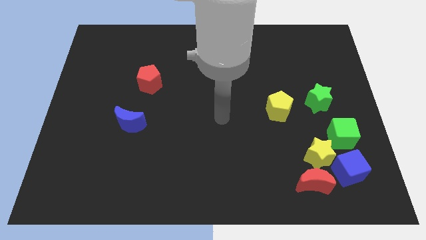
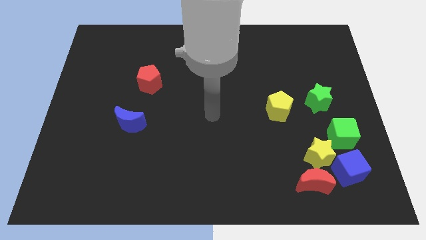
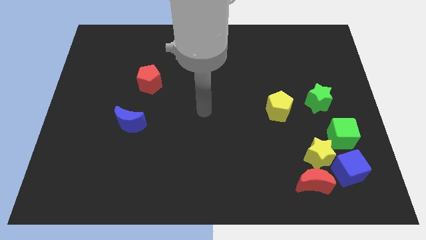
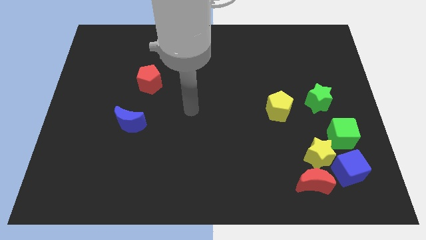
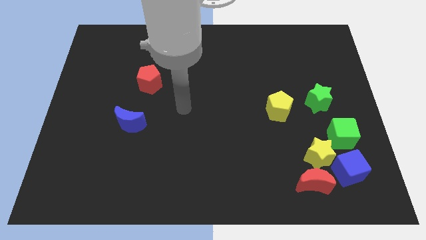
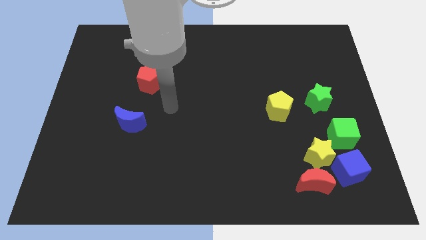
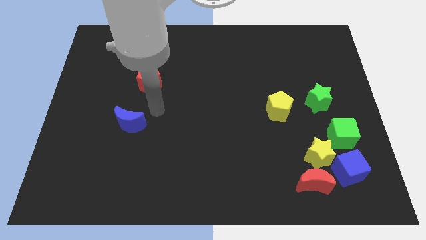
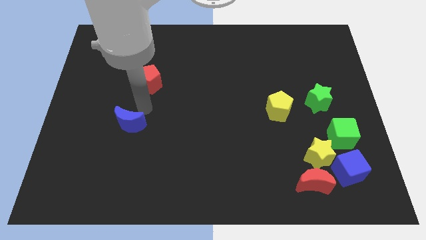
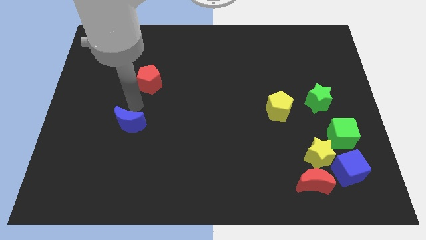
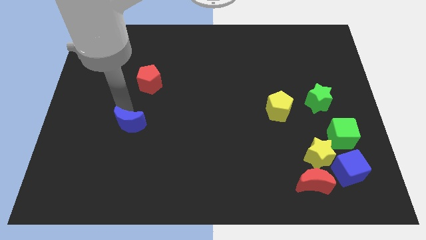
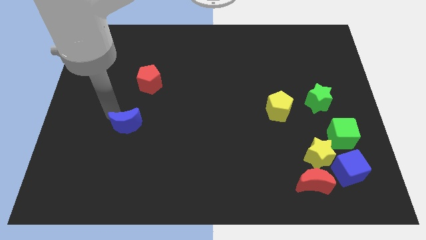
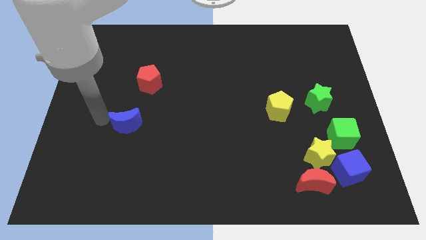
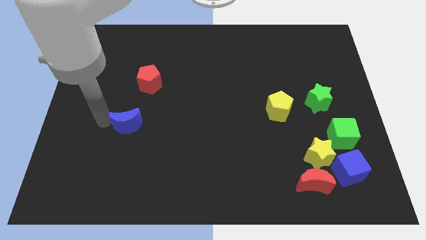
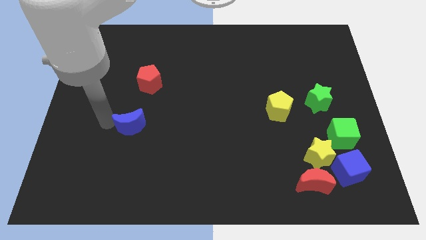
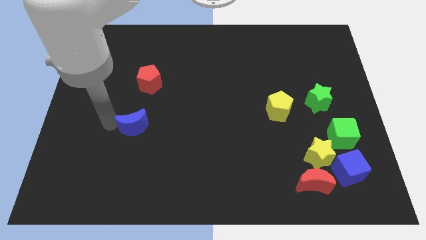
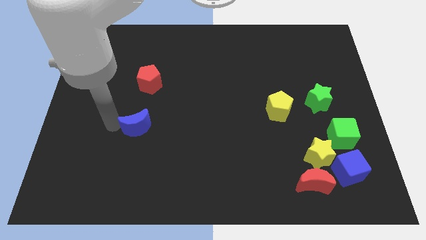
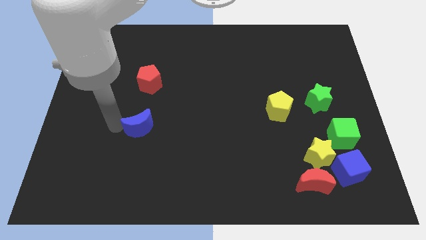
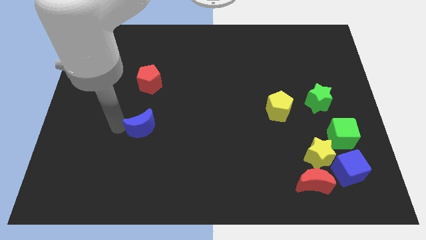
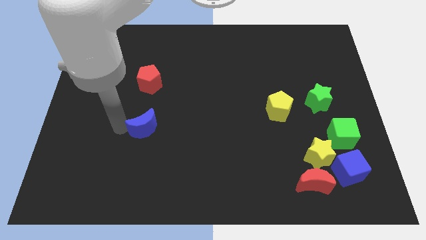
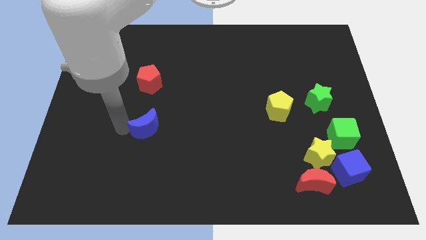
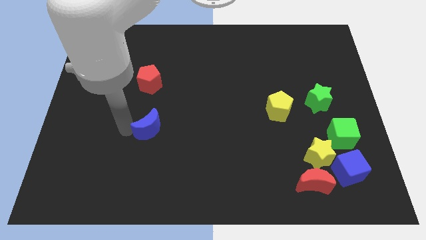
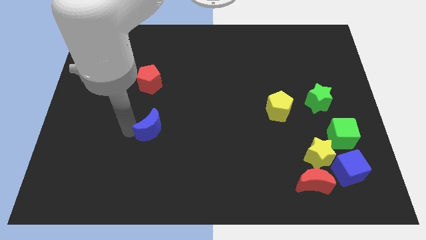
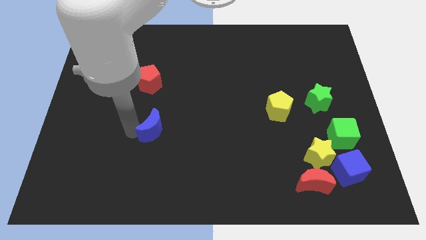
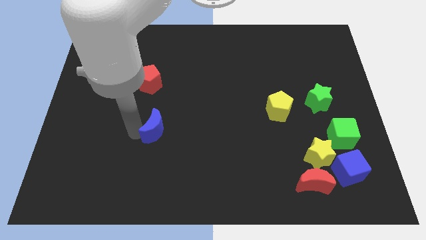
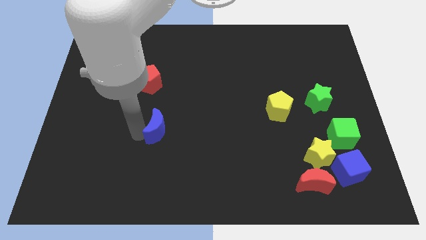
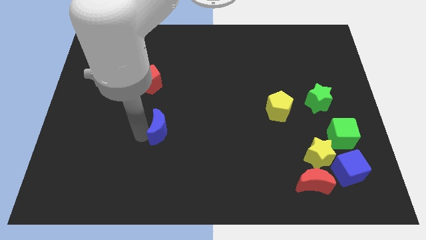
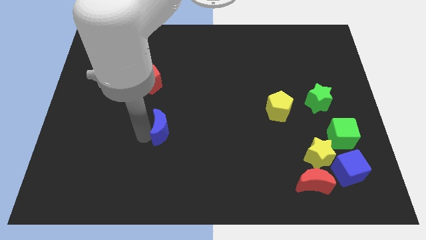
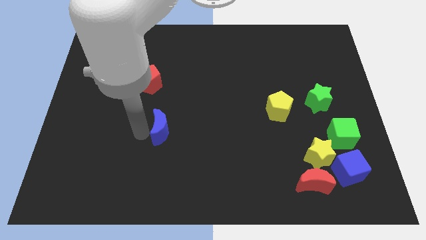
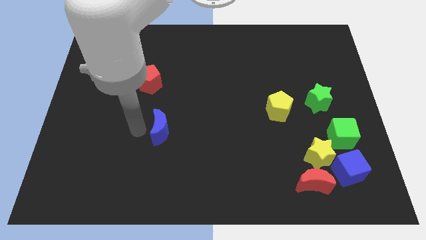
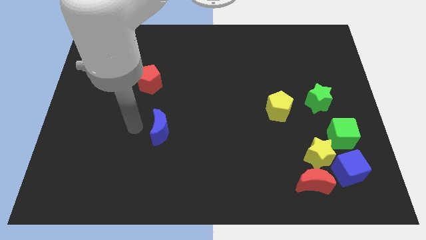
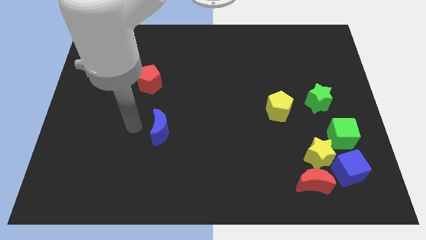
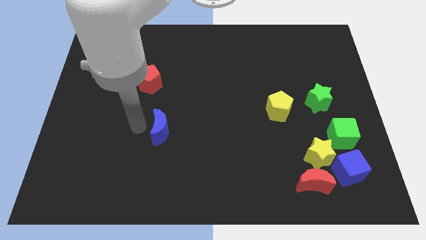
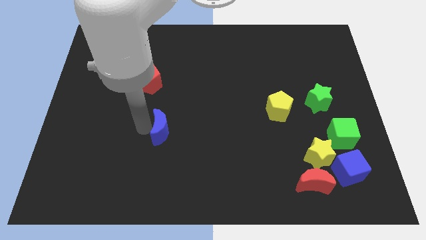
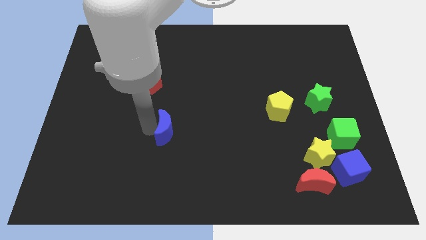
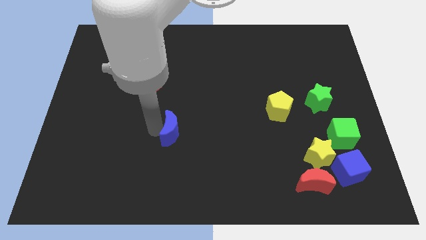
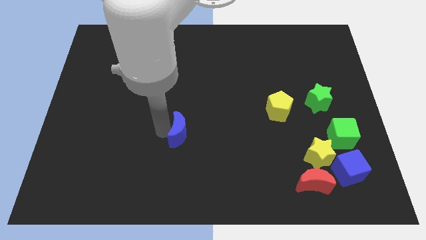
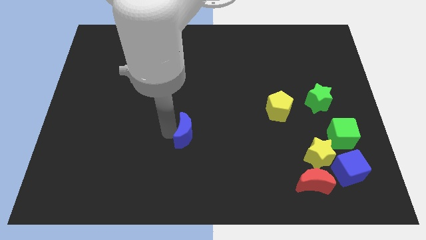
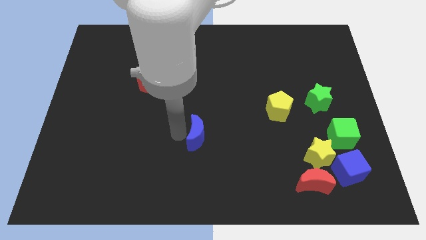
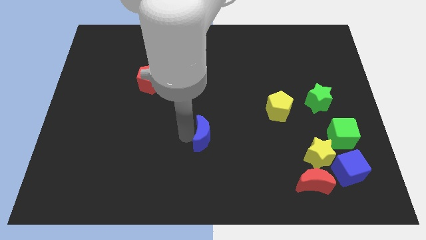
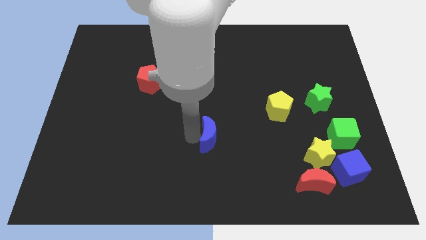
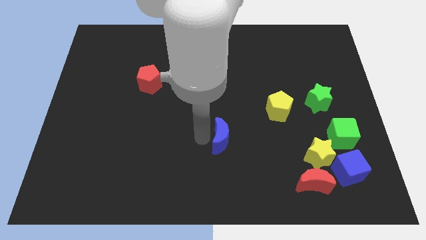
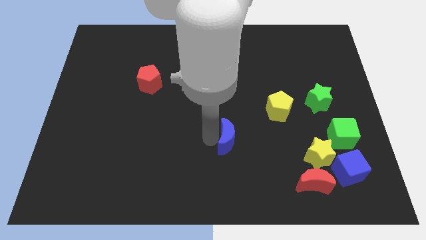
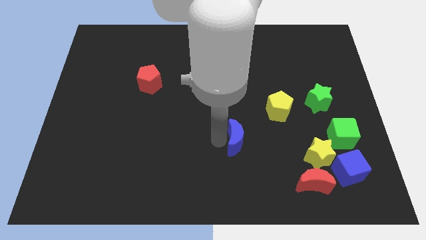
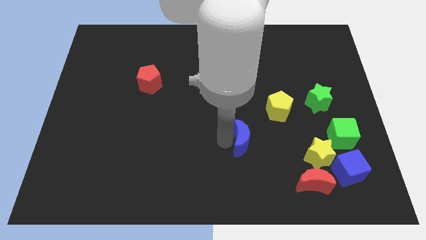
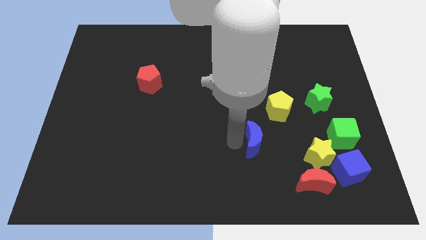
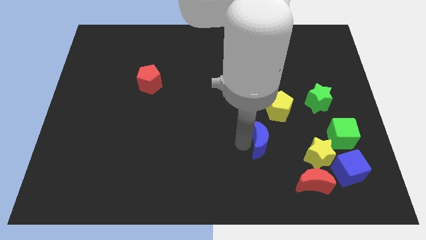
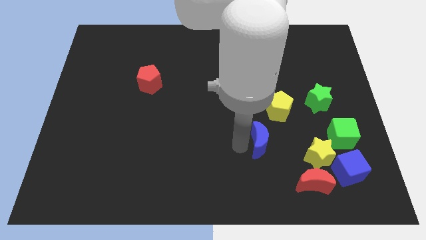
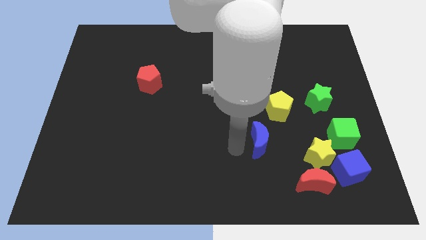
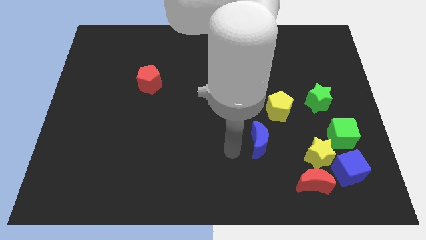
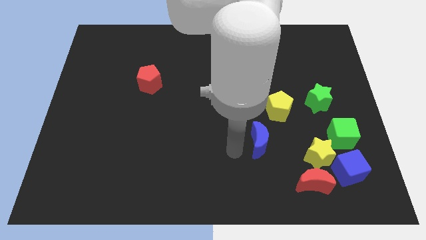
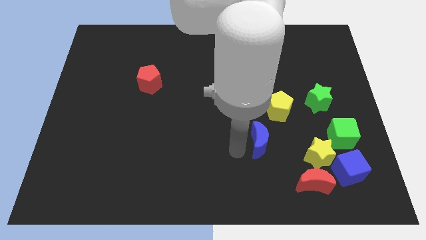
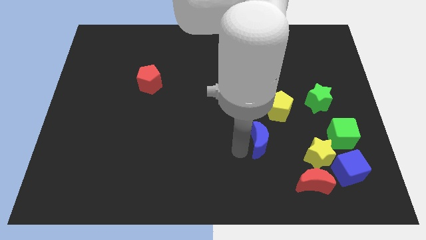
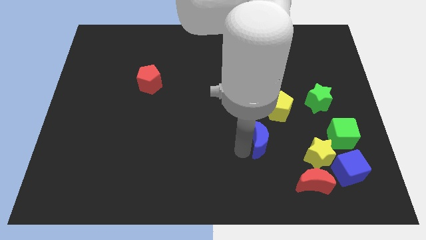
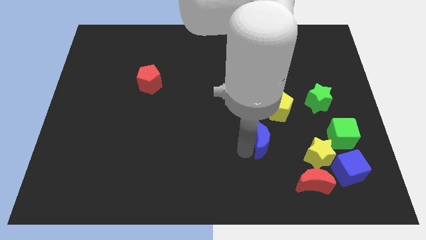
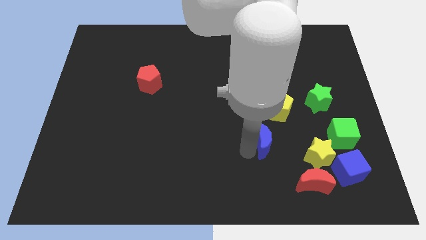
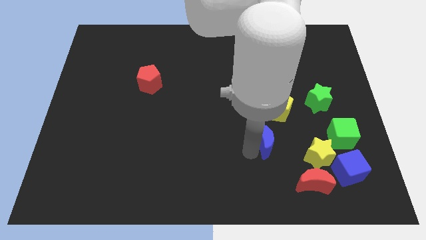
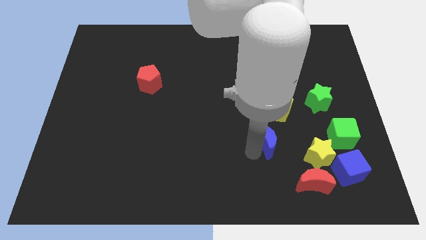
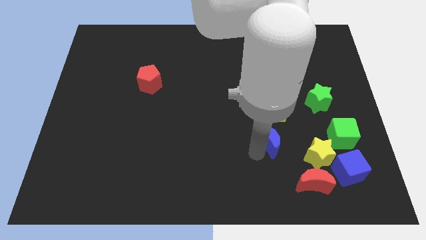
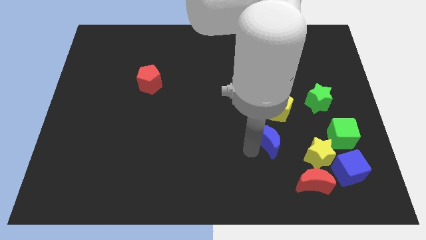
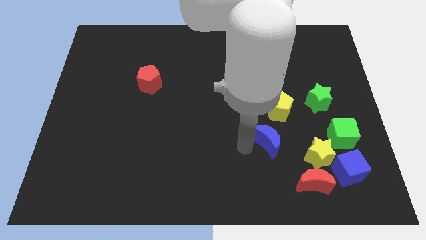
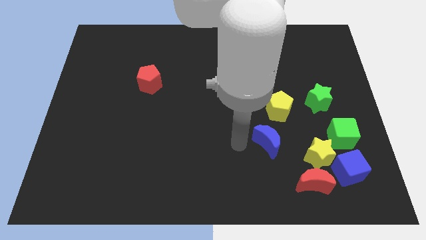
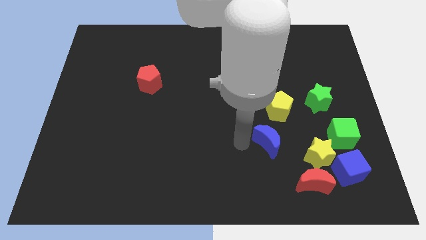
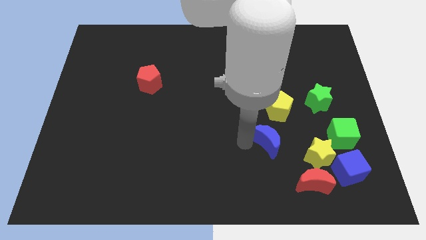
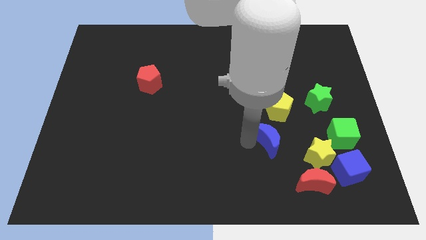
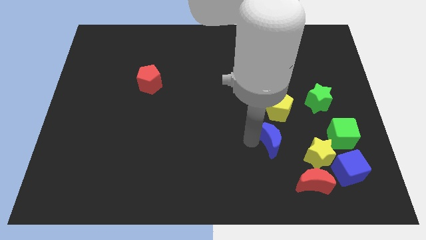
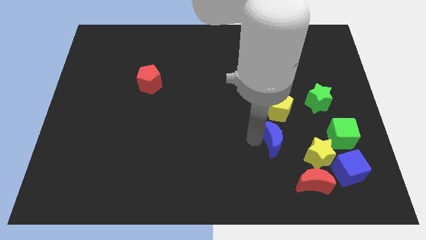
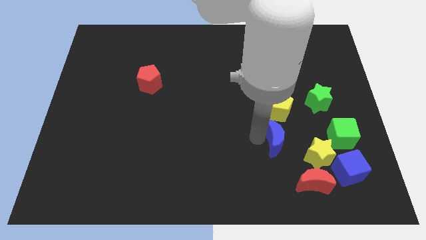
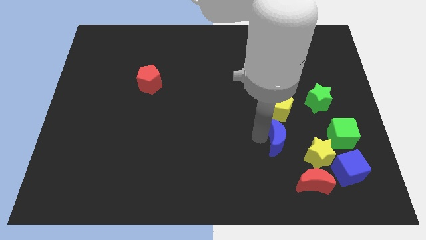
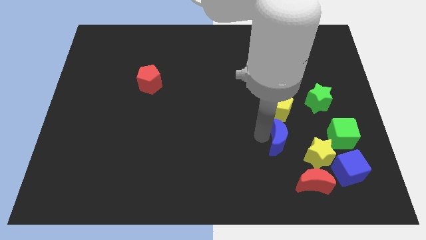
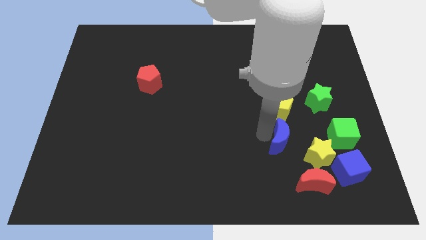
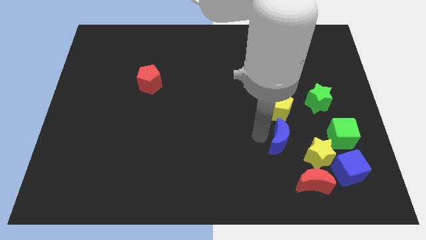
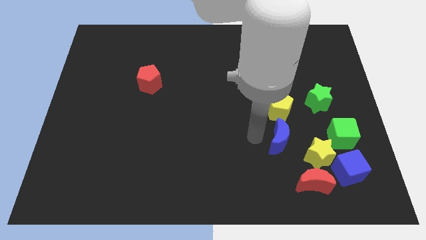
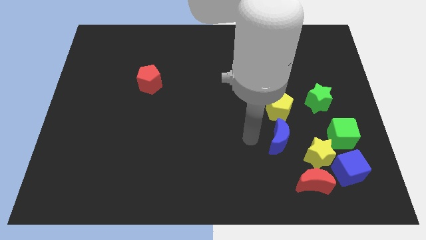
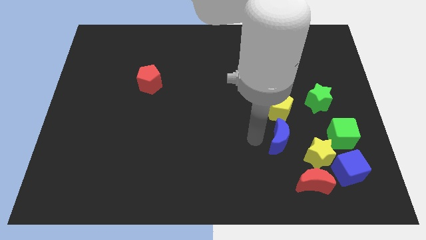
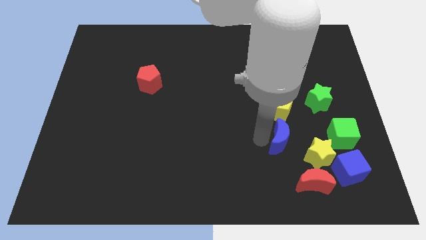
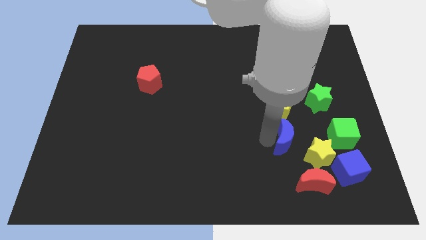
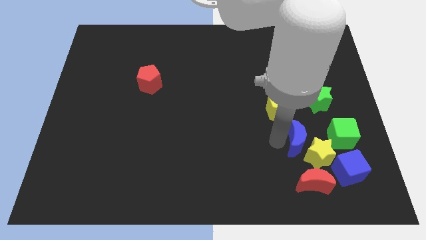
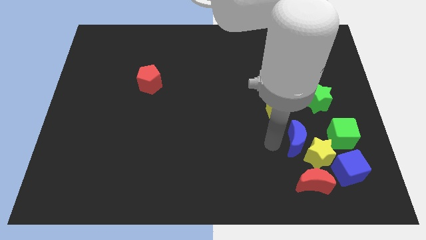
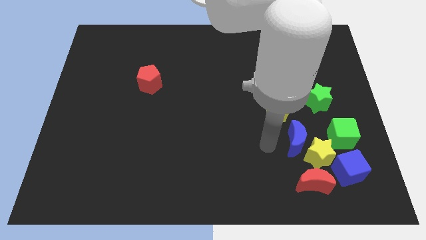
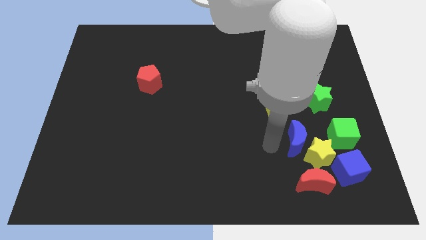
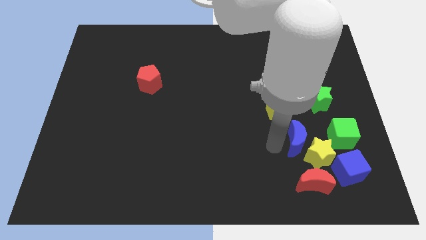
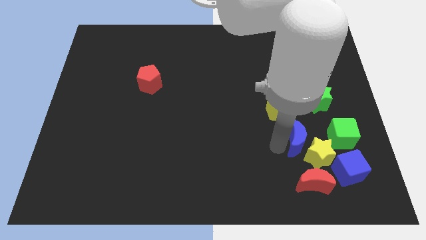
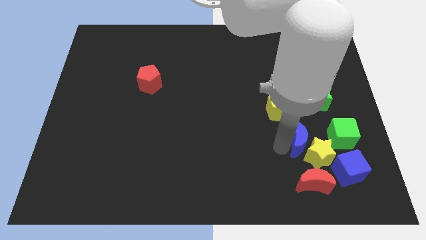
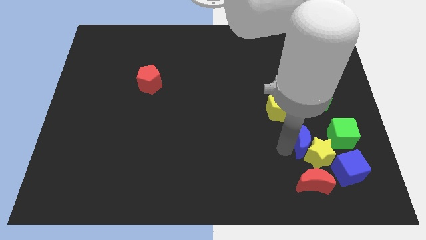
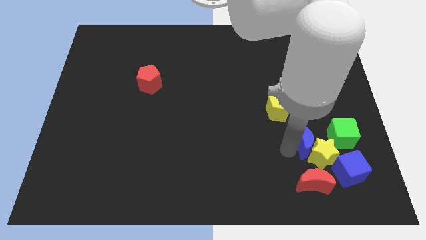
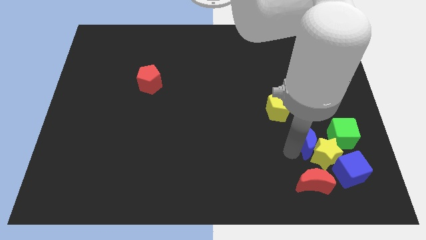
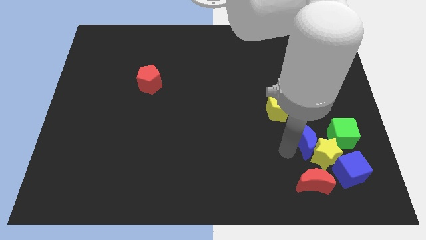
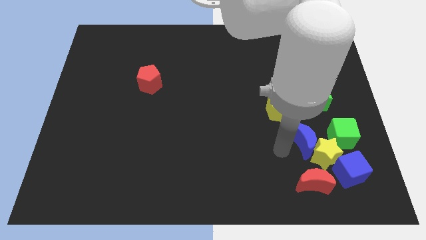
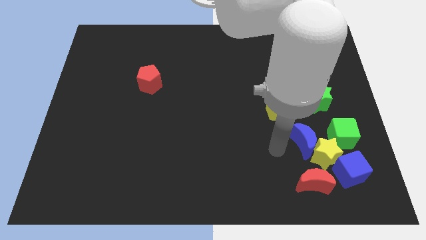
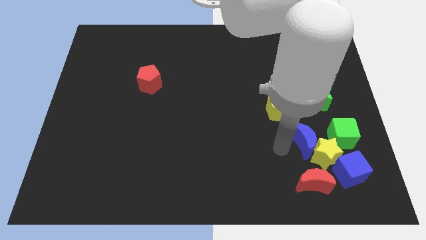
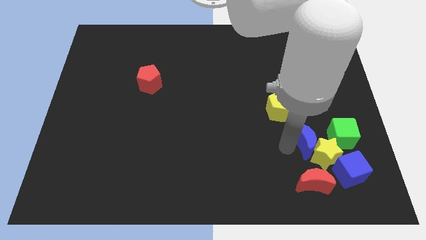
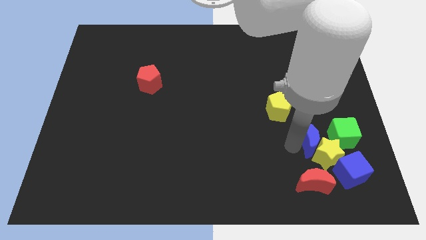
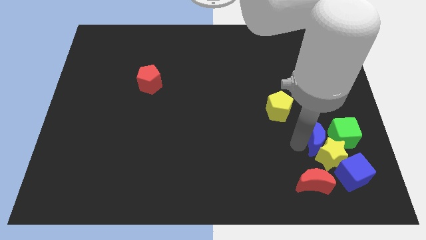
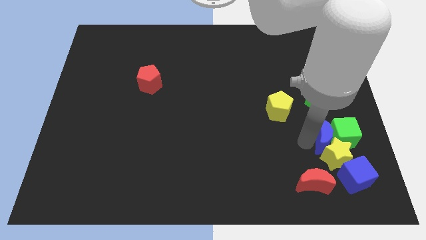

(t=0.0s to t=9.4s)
move the blue moon next to the green cube
